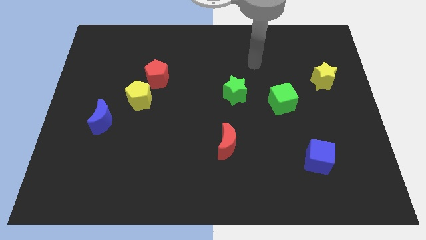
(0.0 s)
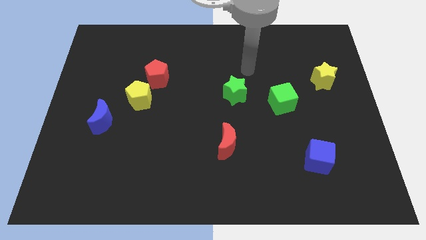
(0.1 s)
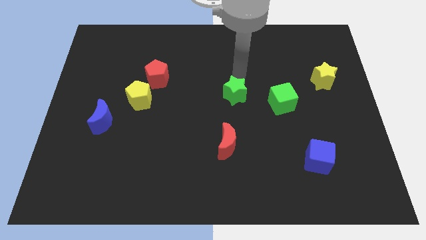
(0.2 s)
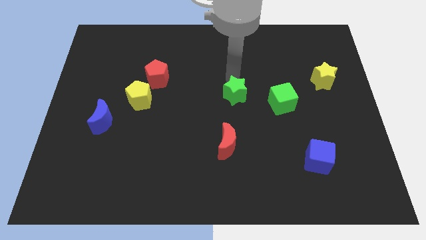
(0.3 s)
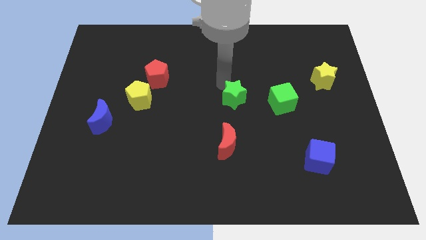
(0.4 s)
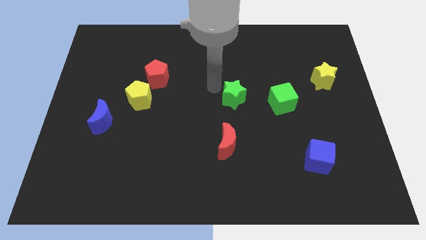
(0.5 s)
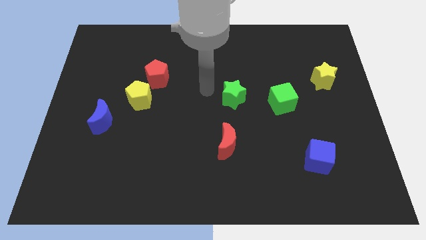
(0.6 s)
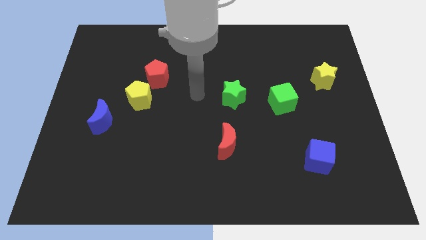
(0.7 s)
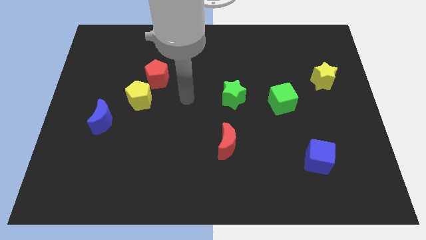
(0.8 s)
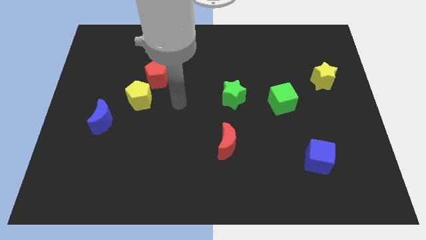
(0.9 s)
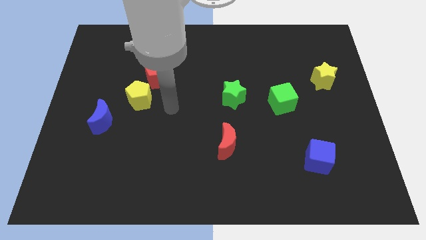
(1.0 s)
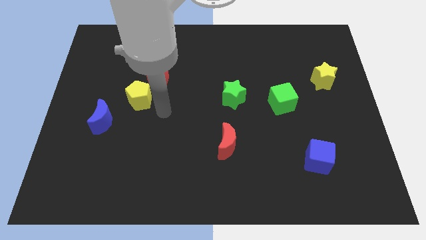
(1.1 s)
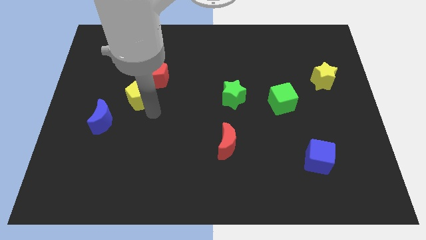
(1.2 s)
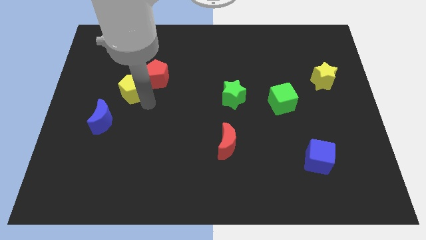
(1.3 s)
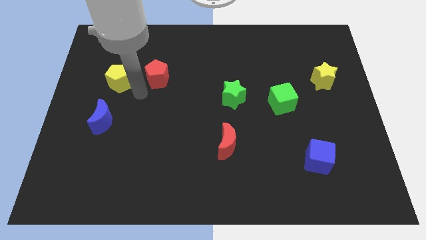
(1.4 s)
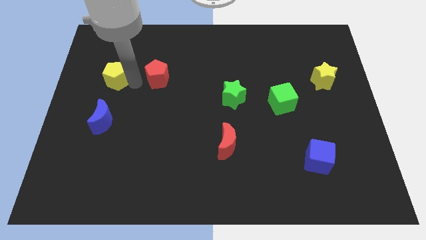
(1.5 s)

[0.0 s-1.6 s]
move the red pentagon away from the yellow pentagon

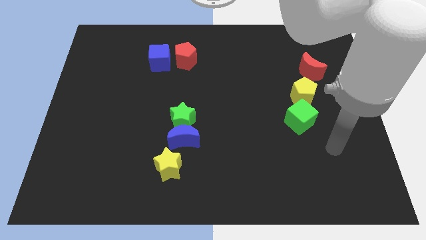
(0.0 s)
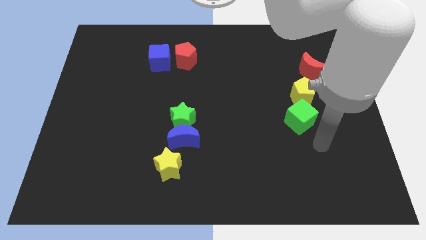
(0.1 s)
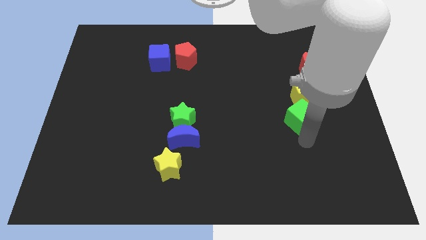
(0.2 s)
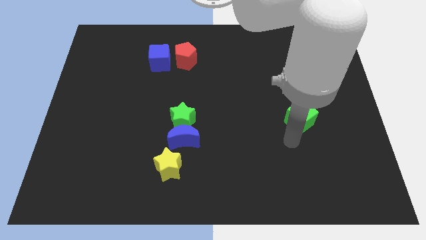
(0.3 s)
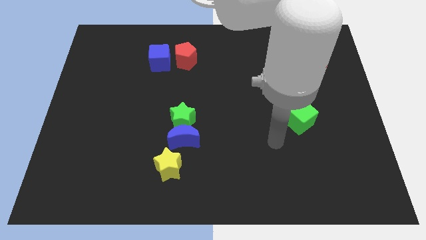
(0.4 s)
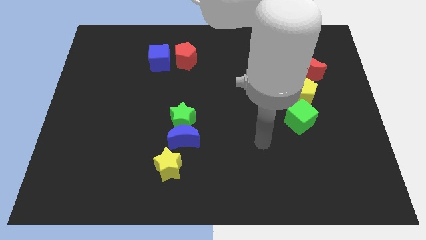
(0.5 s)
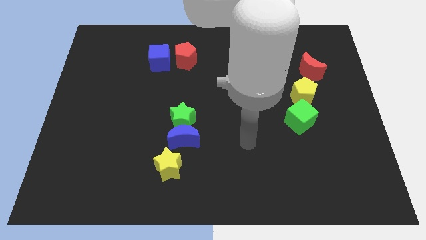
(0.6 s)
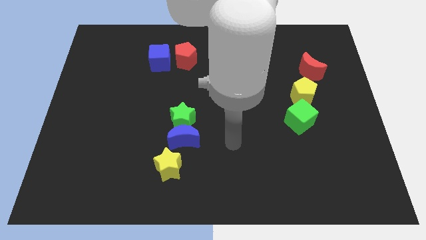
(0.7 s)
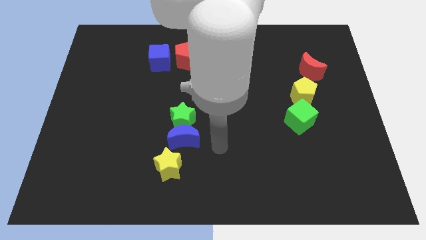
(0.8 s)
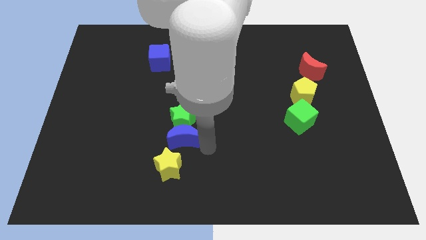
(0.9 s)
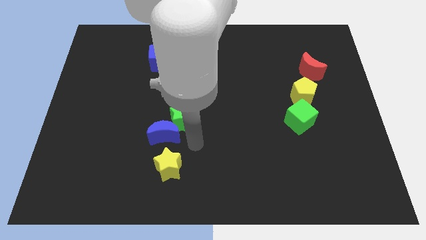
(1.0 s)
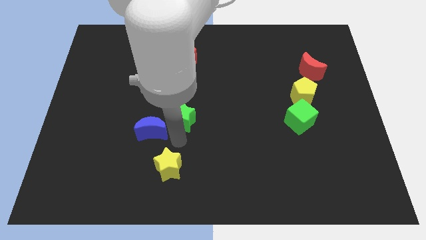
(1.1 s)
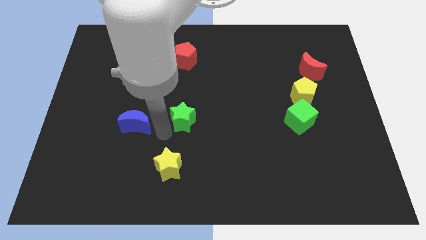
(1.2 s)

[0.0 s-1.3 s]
move the green star away from the blue moon

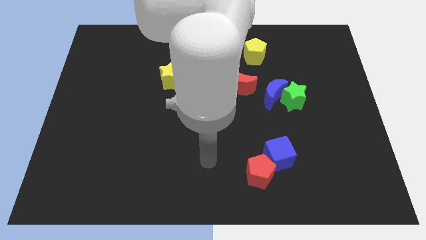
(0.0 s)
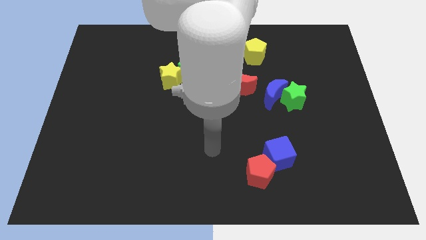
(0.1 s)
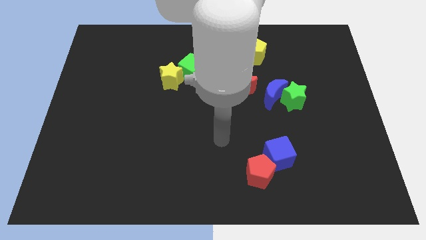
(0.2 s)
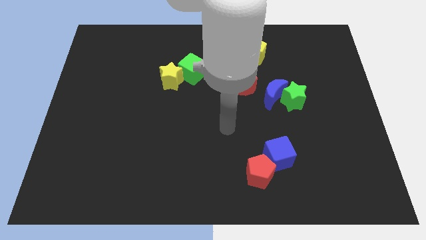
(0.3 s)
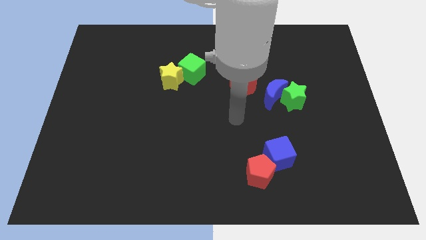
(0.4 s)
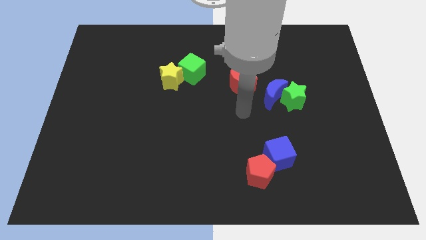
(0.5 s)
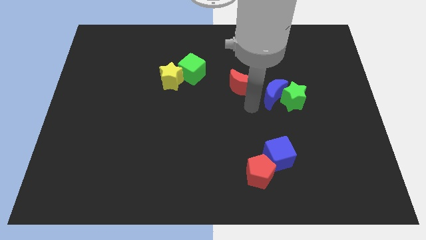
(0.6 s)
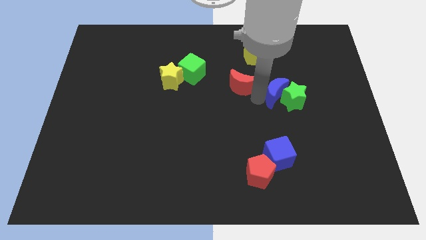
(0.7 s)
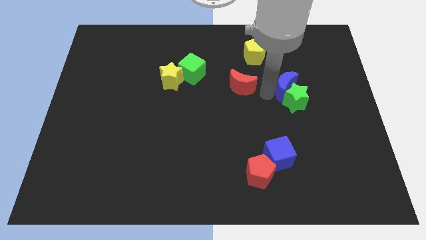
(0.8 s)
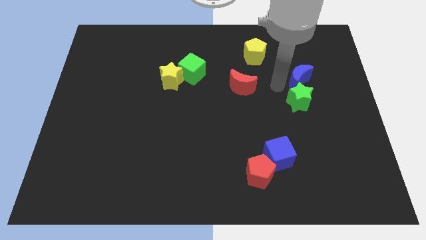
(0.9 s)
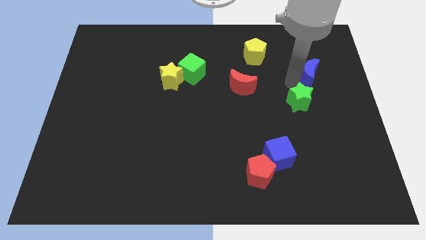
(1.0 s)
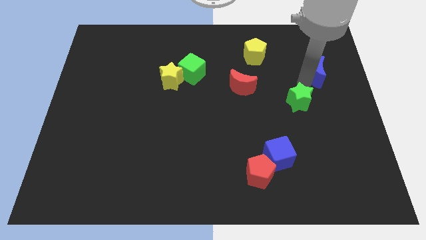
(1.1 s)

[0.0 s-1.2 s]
separate the green star from the blue moon

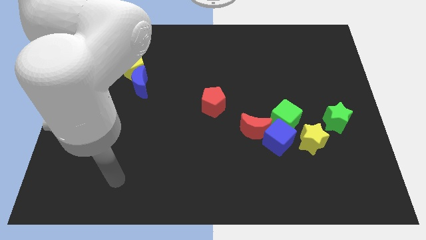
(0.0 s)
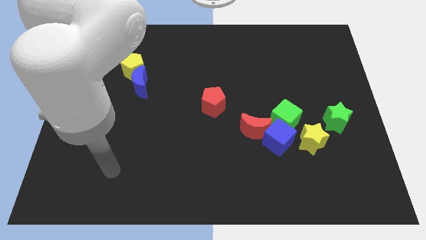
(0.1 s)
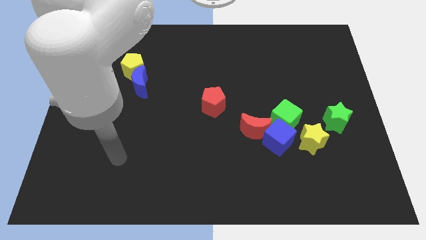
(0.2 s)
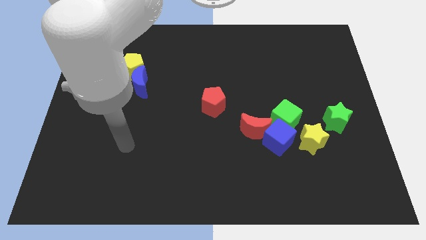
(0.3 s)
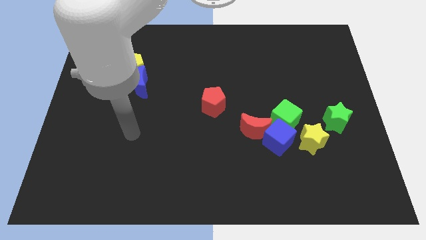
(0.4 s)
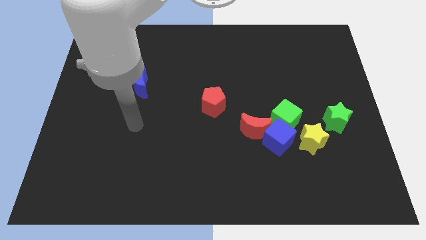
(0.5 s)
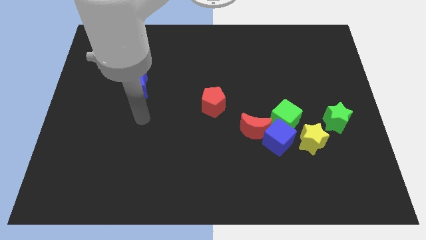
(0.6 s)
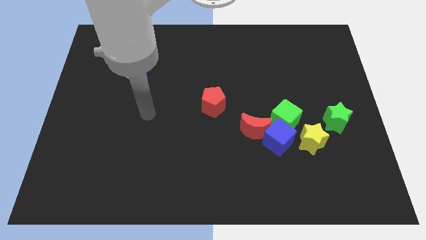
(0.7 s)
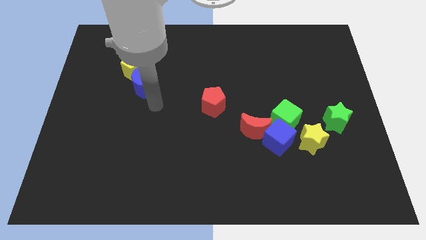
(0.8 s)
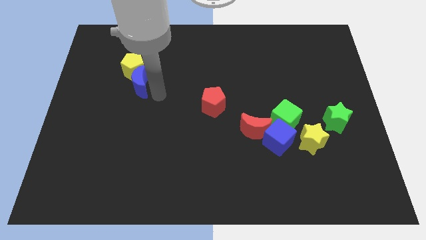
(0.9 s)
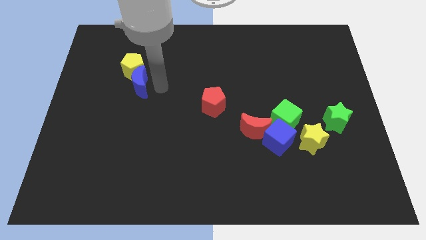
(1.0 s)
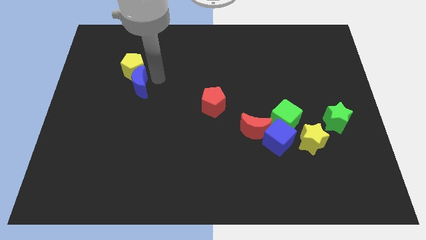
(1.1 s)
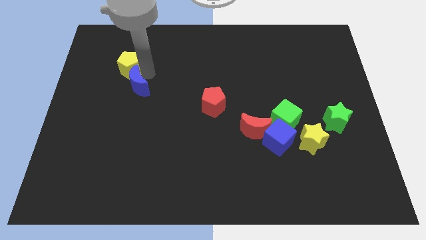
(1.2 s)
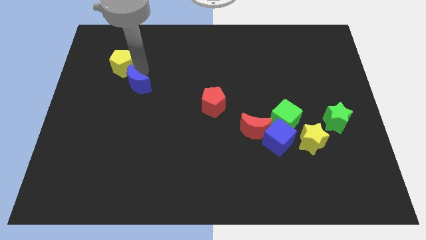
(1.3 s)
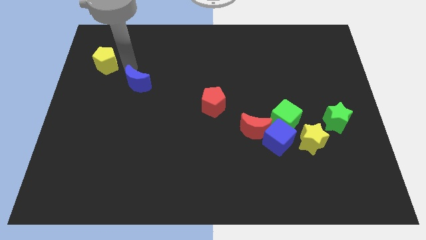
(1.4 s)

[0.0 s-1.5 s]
separate the blue moon from the yellow pentagon

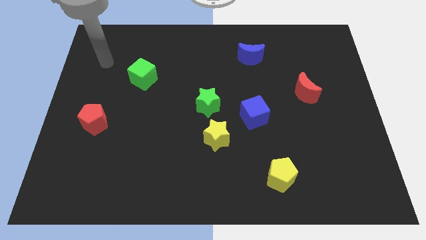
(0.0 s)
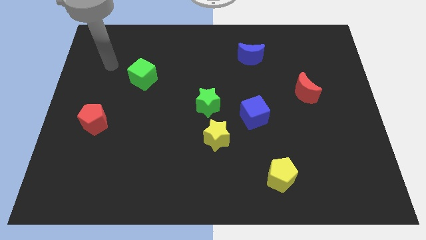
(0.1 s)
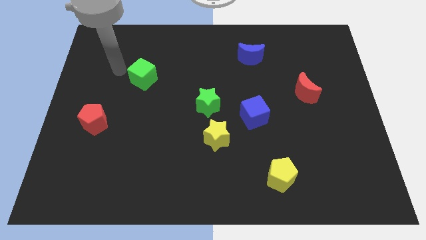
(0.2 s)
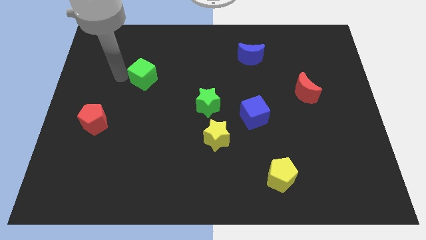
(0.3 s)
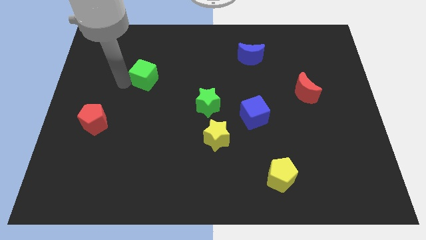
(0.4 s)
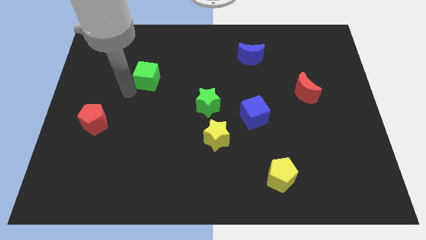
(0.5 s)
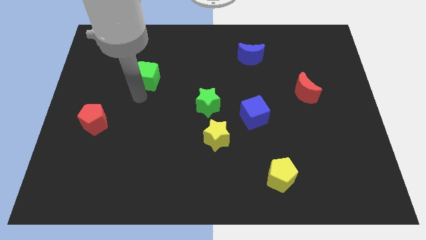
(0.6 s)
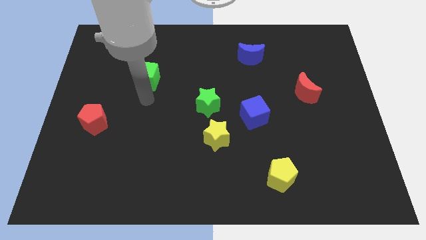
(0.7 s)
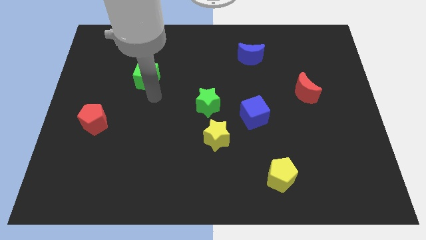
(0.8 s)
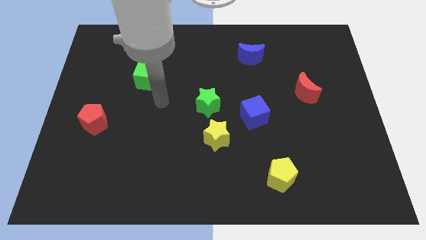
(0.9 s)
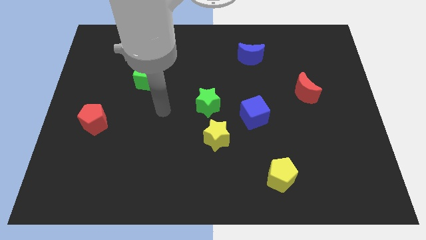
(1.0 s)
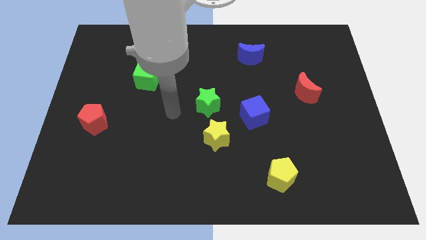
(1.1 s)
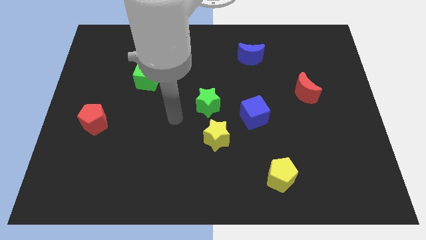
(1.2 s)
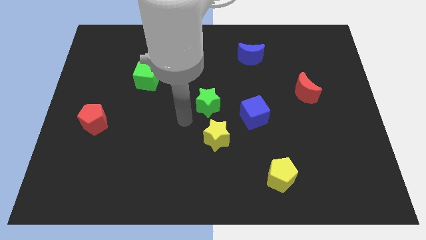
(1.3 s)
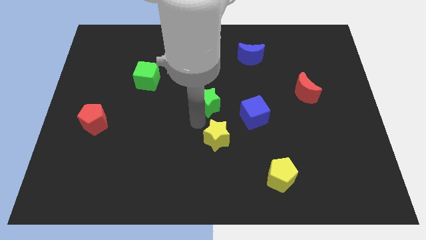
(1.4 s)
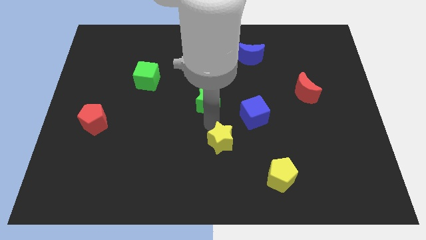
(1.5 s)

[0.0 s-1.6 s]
separate the green star from the yellow star

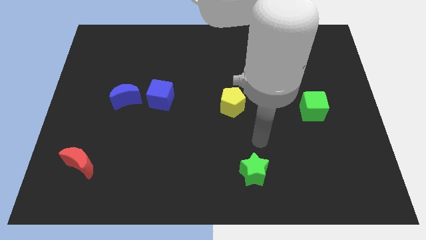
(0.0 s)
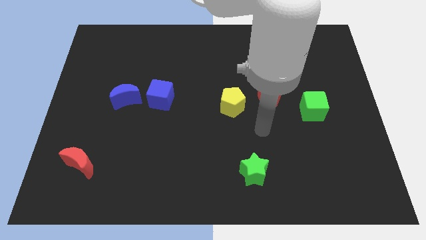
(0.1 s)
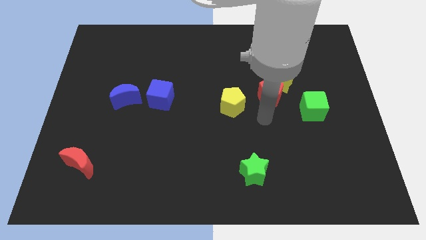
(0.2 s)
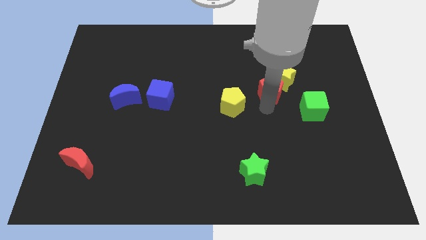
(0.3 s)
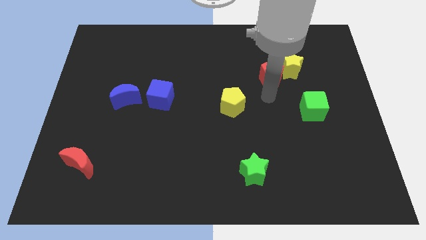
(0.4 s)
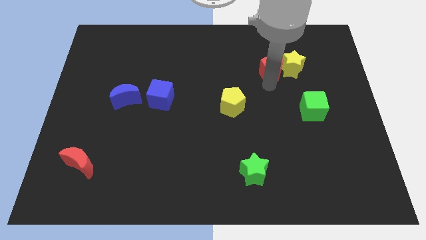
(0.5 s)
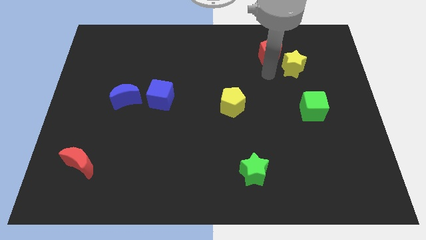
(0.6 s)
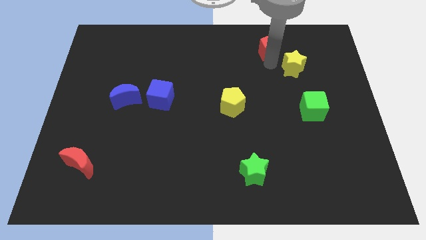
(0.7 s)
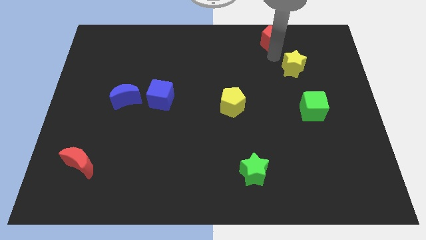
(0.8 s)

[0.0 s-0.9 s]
pull the yellow star apart from the red pentagon

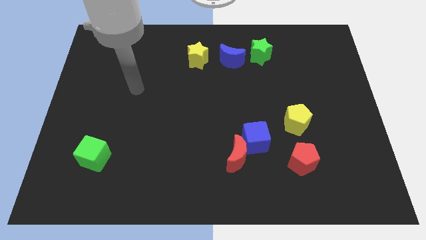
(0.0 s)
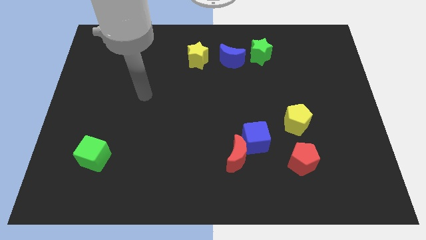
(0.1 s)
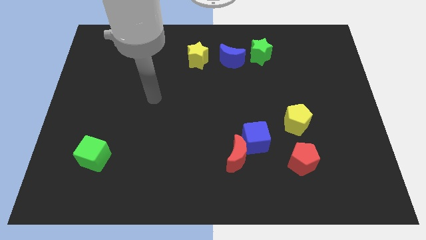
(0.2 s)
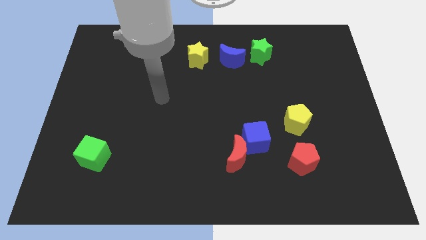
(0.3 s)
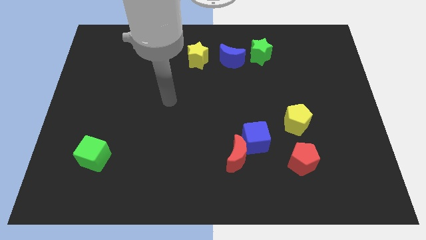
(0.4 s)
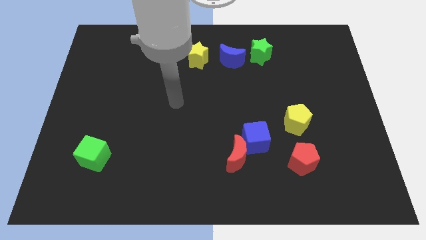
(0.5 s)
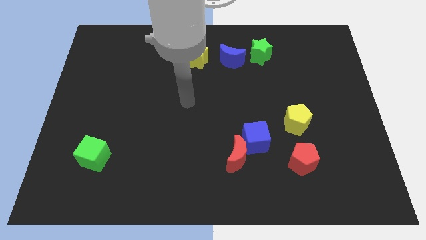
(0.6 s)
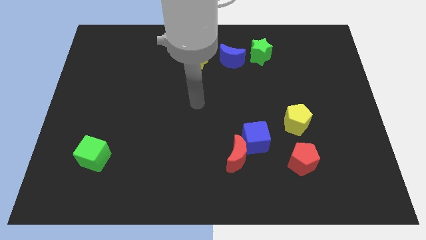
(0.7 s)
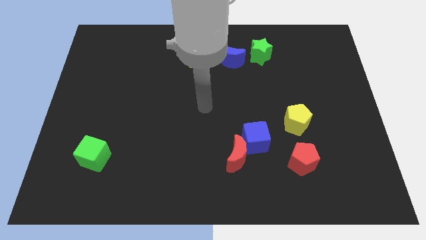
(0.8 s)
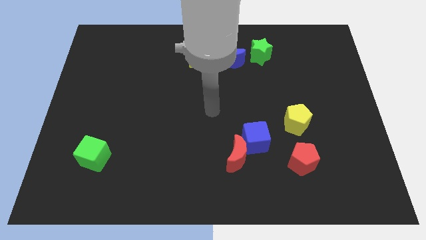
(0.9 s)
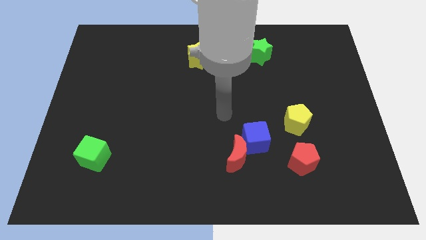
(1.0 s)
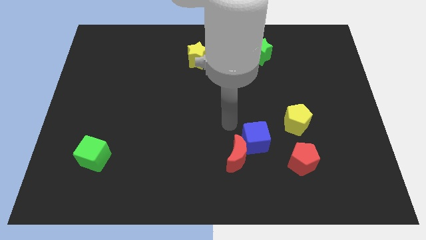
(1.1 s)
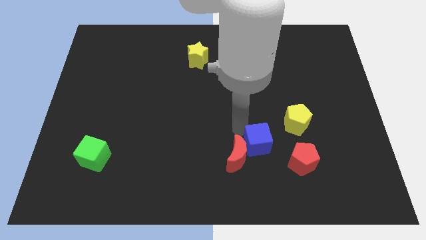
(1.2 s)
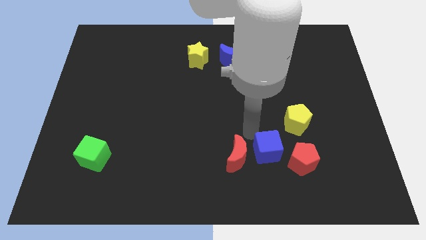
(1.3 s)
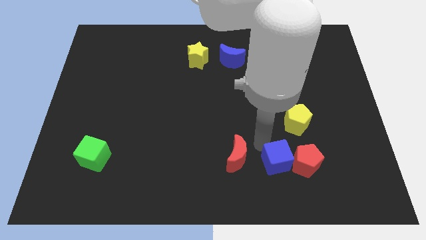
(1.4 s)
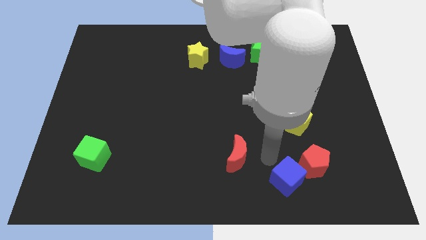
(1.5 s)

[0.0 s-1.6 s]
pull the red moon apart from the blue cube
